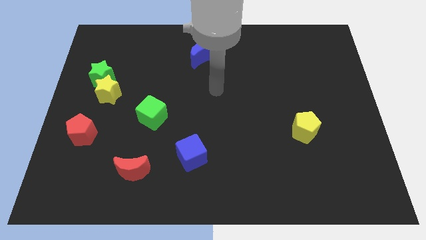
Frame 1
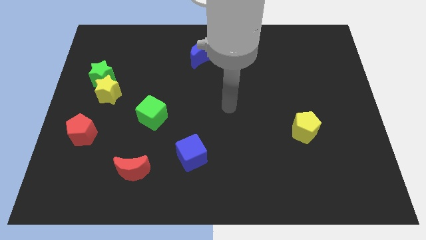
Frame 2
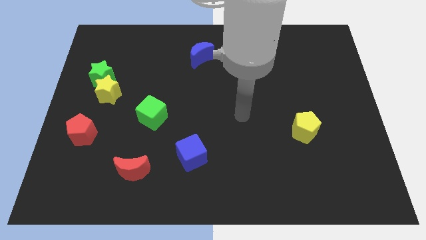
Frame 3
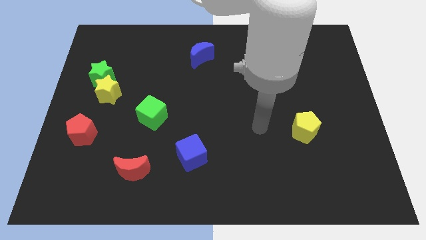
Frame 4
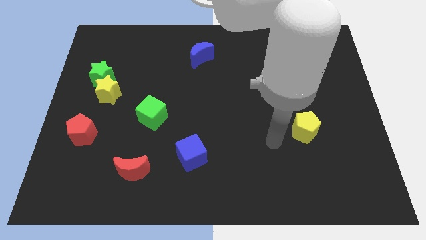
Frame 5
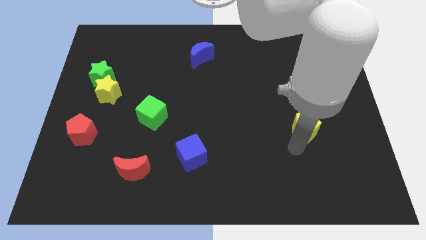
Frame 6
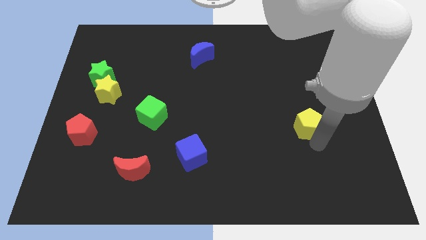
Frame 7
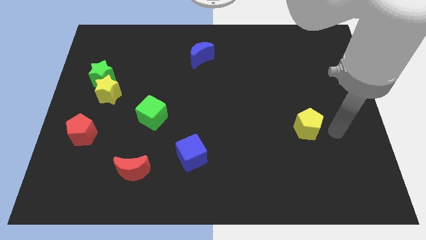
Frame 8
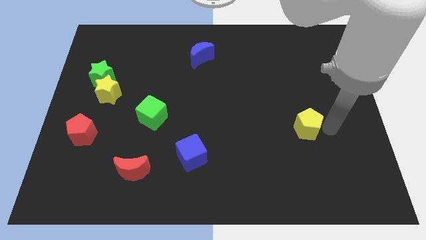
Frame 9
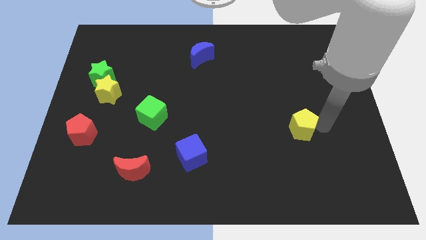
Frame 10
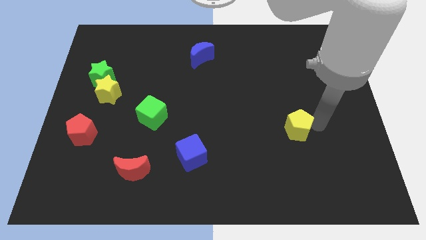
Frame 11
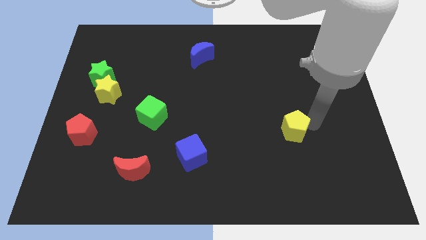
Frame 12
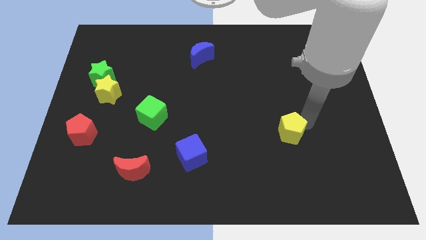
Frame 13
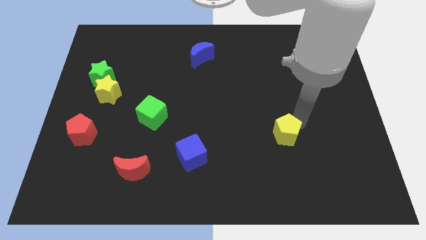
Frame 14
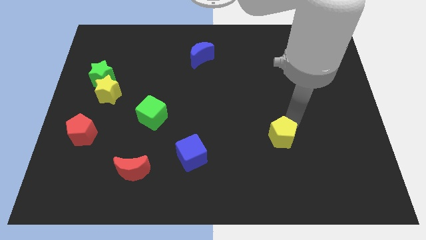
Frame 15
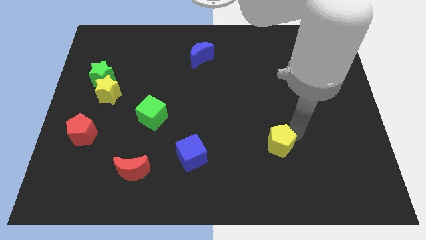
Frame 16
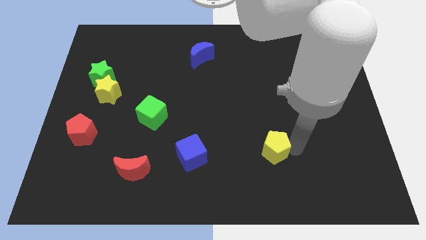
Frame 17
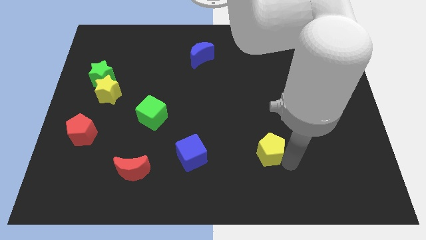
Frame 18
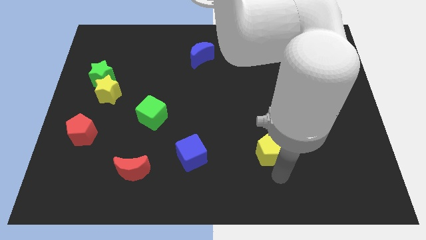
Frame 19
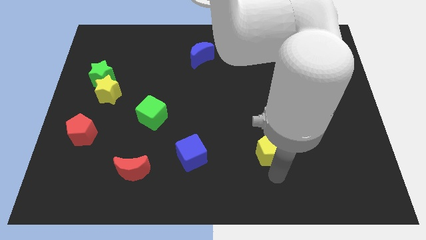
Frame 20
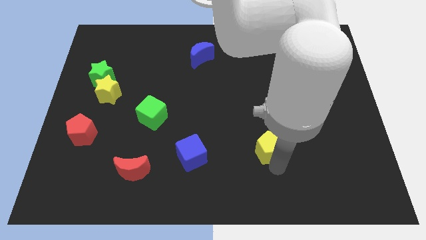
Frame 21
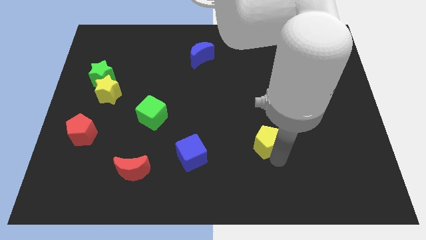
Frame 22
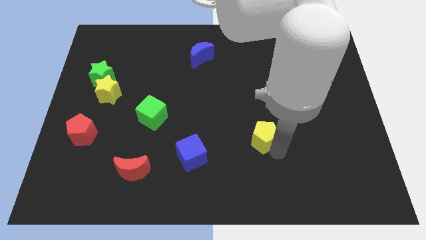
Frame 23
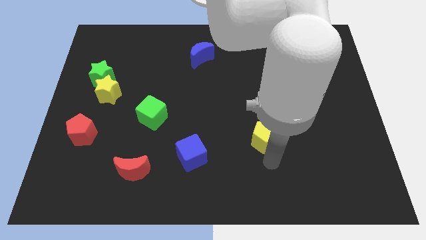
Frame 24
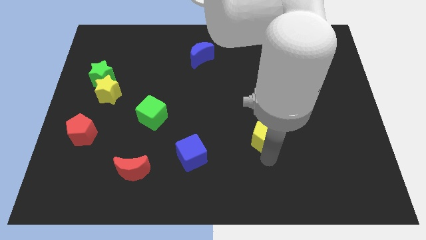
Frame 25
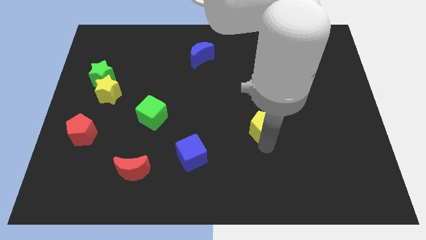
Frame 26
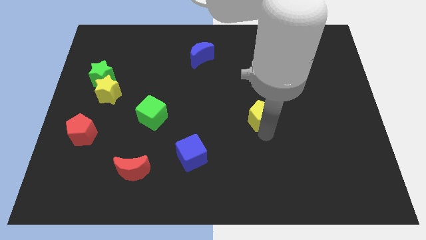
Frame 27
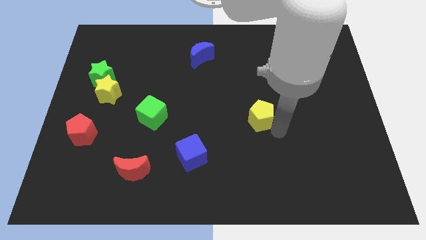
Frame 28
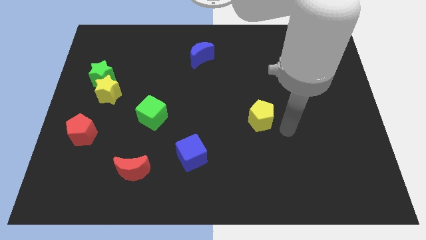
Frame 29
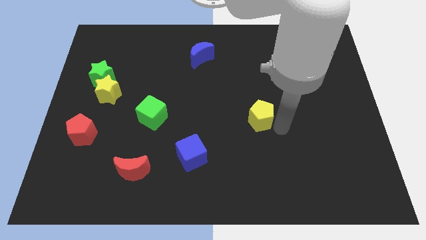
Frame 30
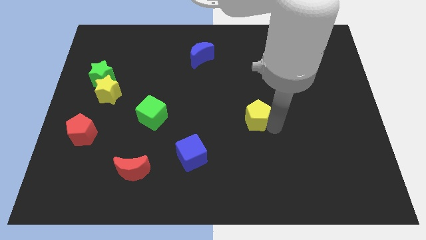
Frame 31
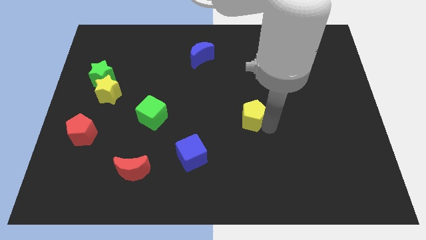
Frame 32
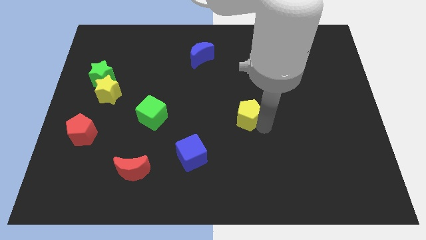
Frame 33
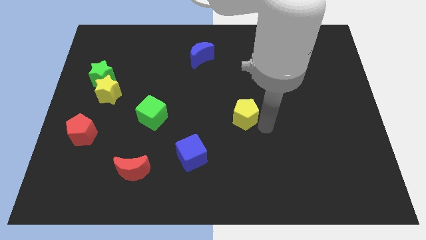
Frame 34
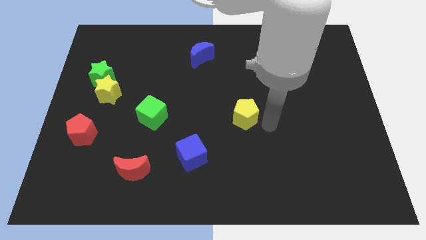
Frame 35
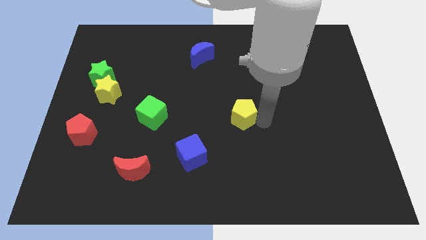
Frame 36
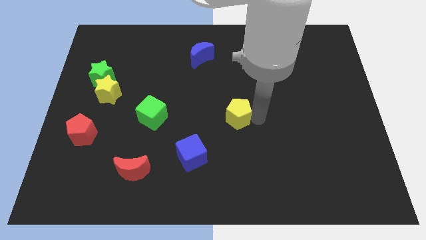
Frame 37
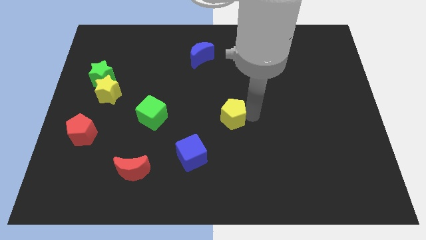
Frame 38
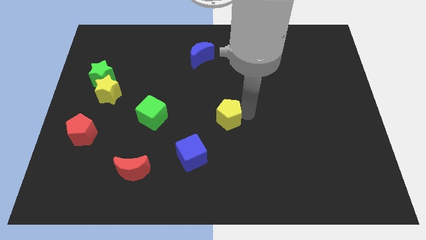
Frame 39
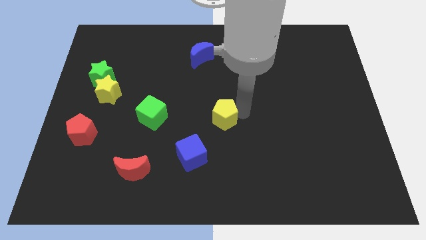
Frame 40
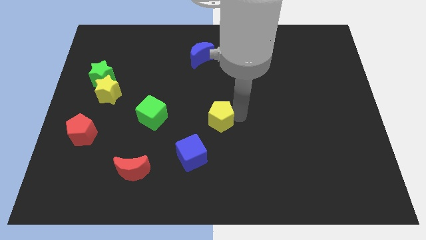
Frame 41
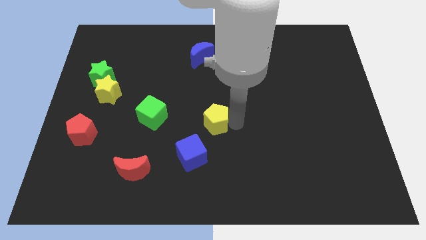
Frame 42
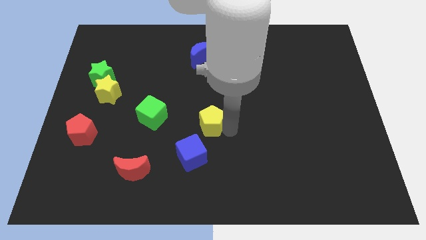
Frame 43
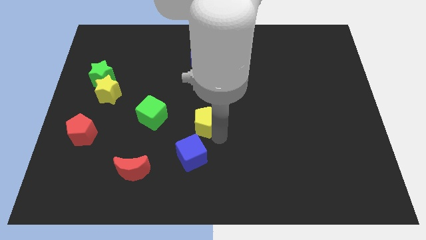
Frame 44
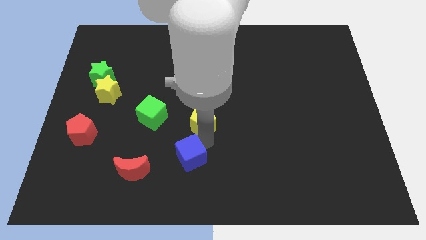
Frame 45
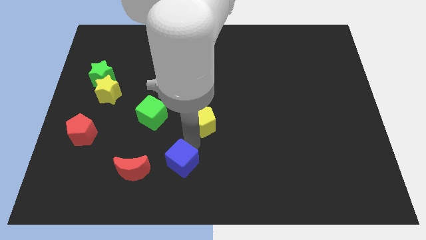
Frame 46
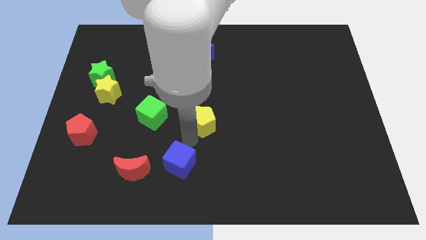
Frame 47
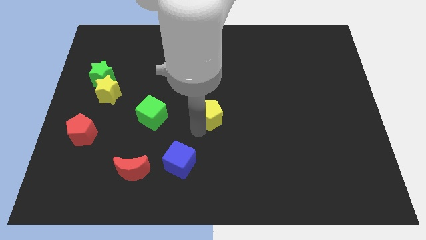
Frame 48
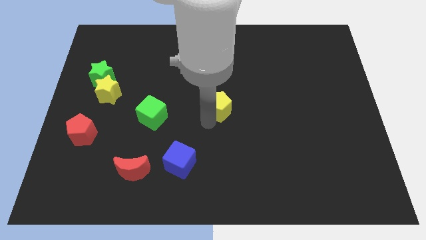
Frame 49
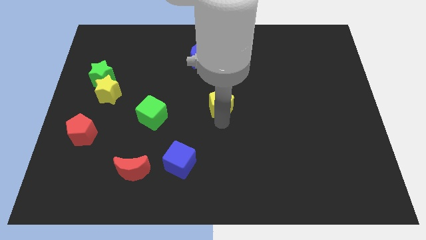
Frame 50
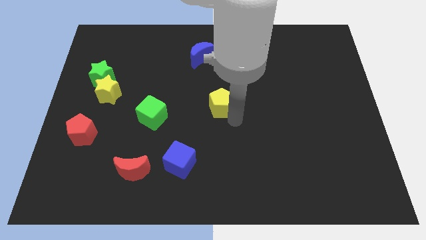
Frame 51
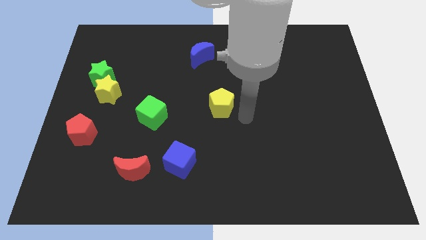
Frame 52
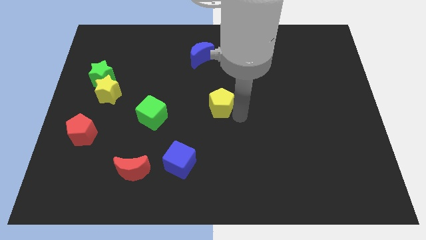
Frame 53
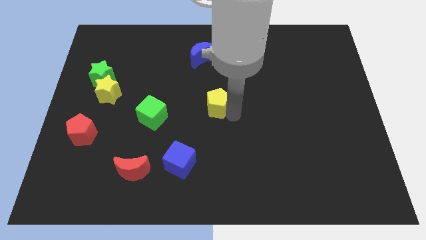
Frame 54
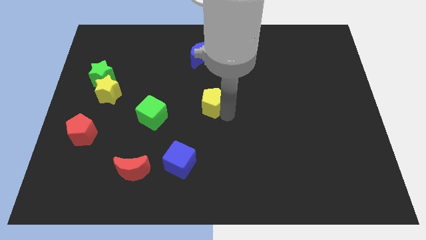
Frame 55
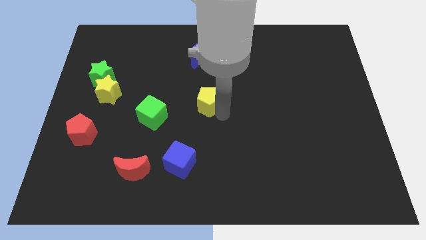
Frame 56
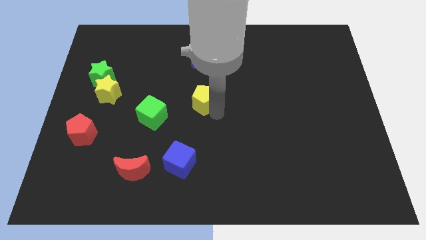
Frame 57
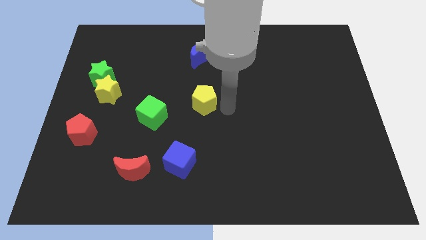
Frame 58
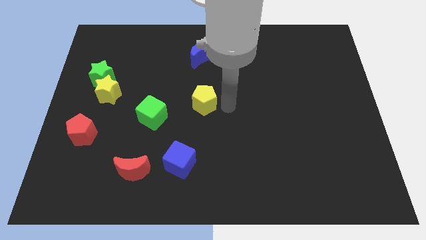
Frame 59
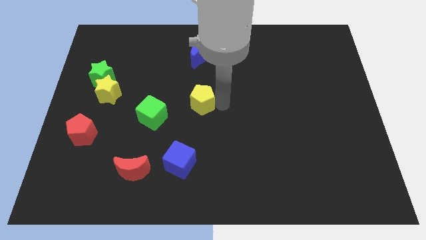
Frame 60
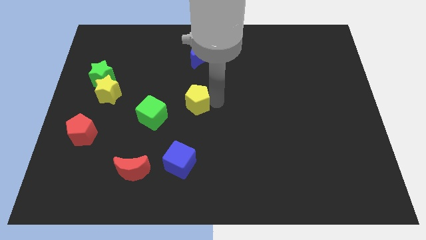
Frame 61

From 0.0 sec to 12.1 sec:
move the yellow pentagon to the top right side of the green cube
